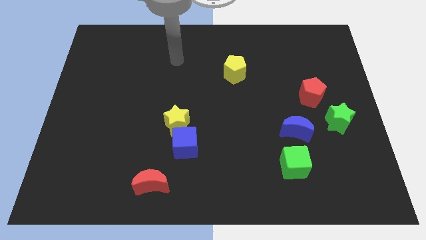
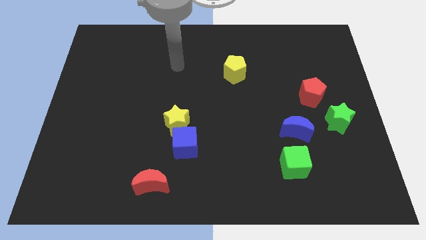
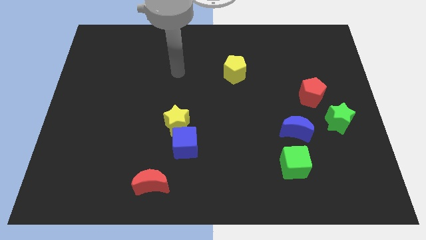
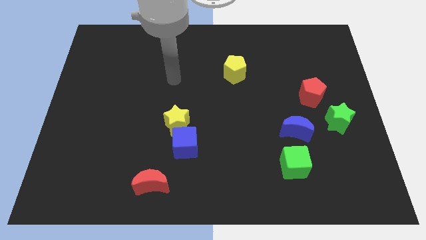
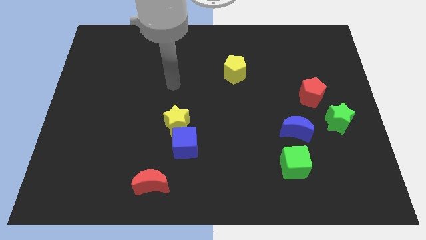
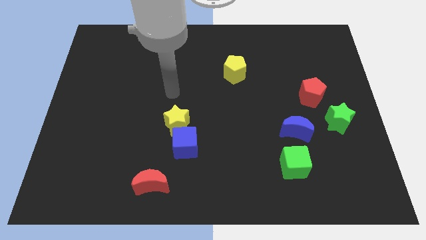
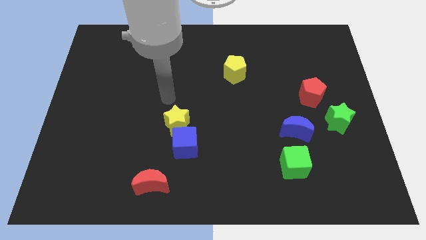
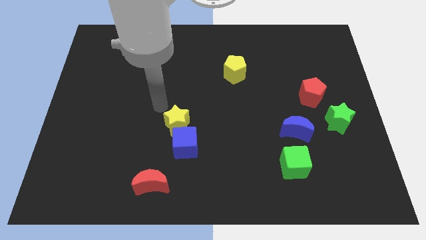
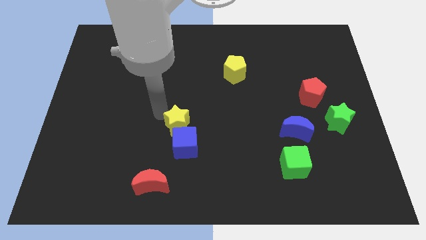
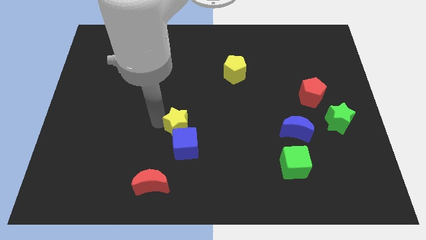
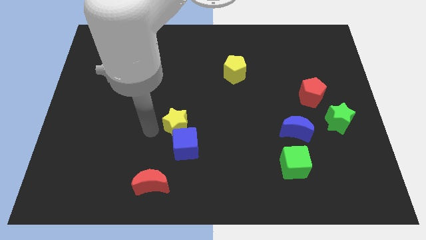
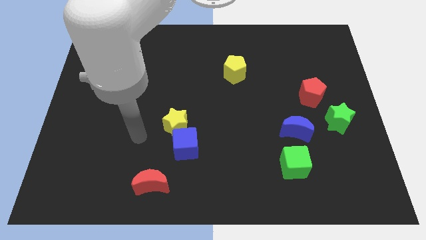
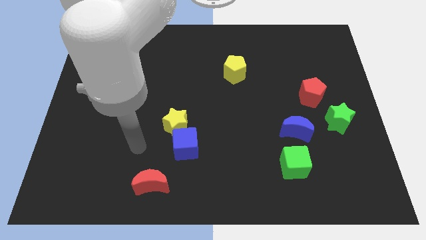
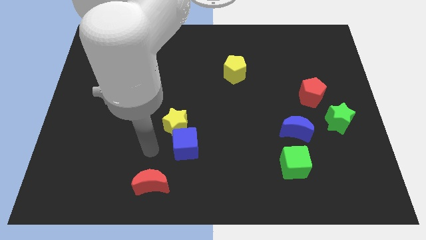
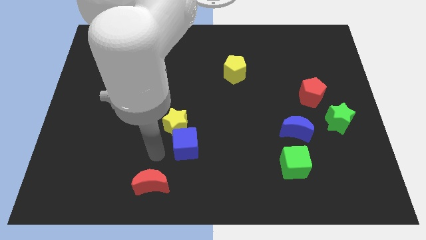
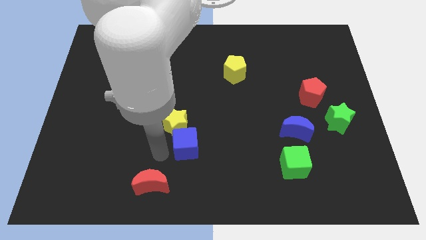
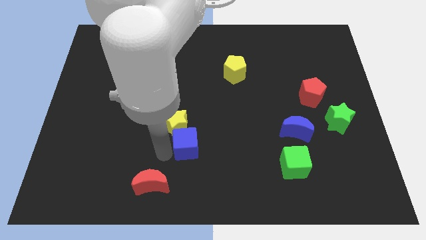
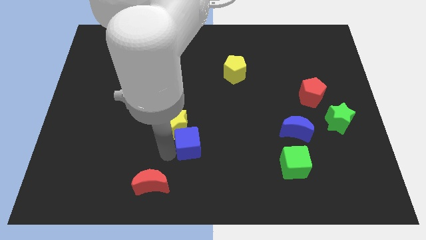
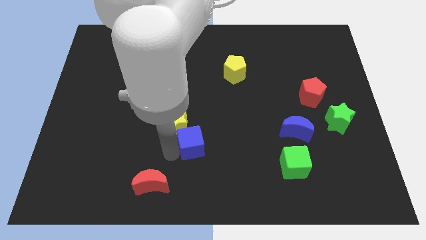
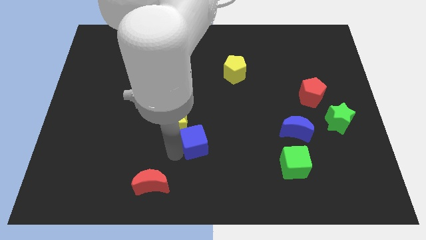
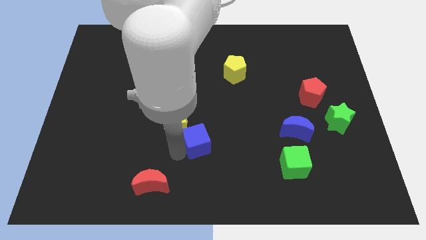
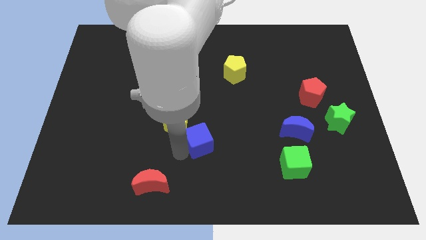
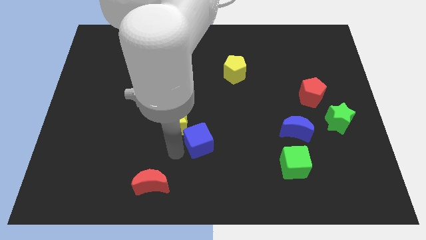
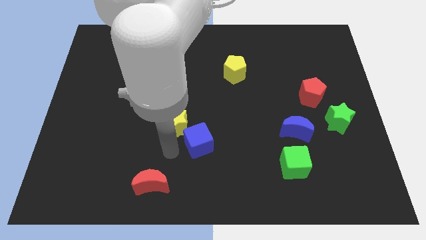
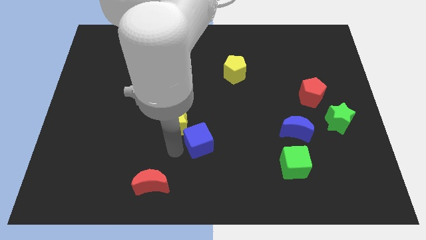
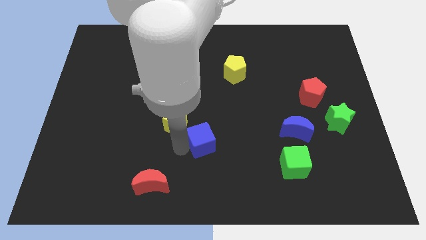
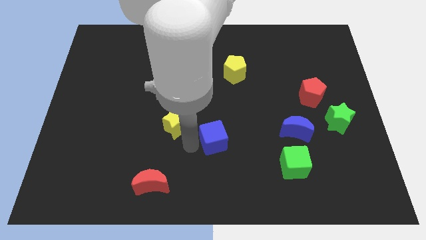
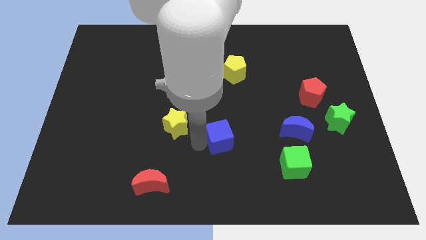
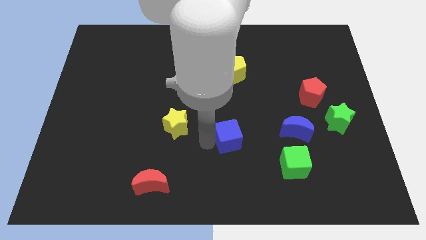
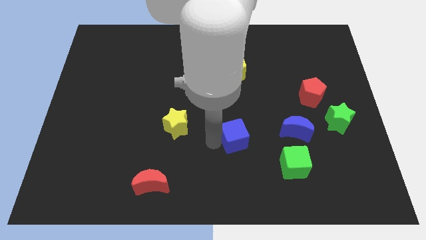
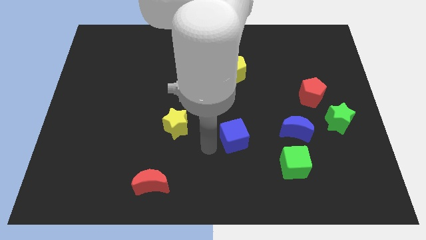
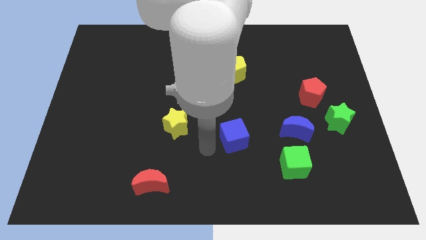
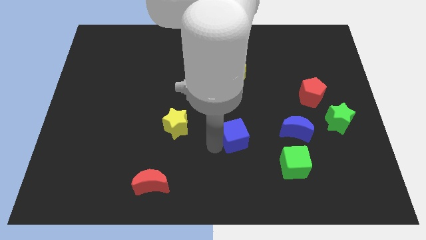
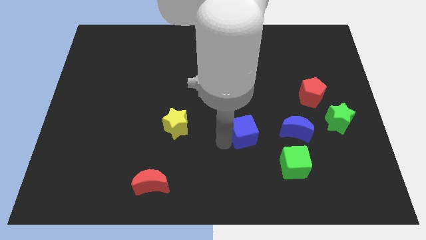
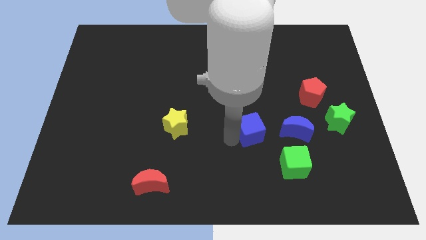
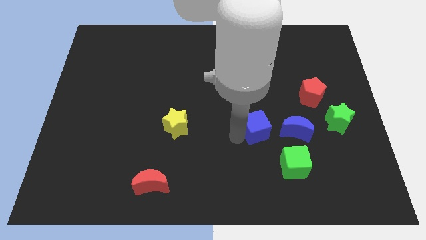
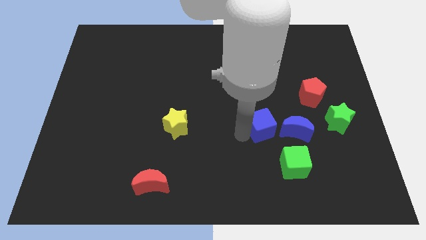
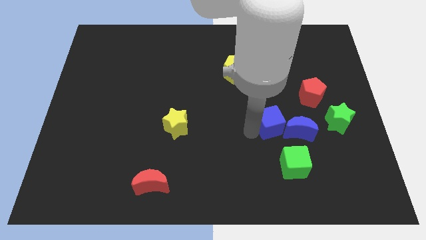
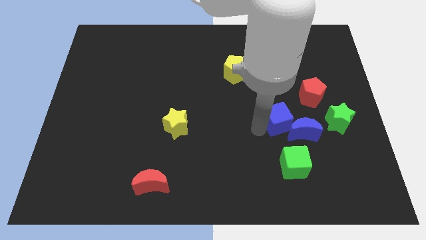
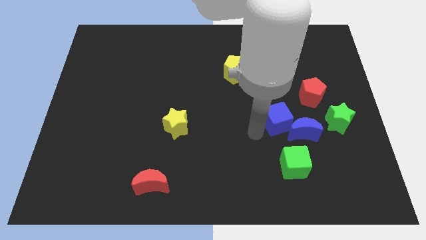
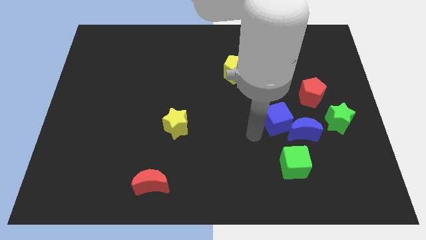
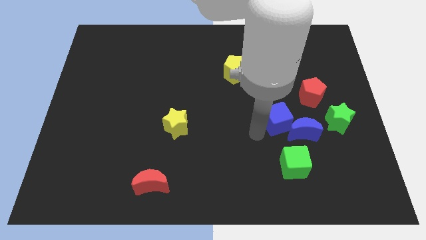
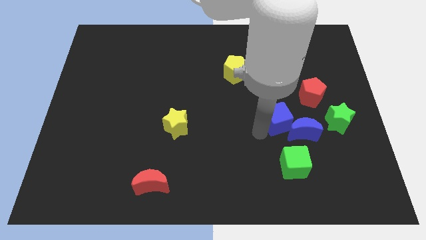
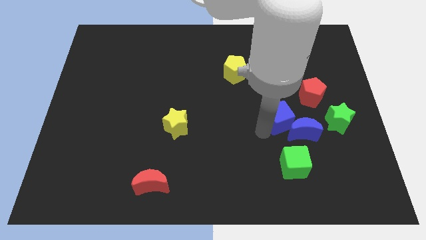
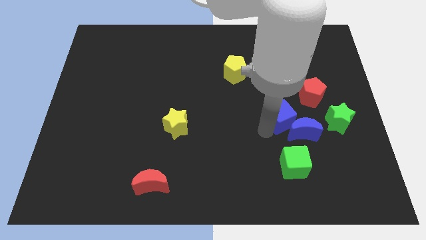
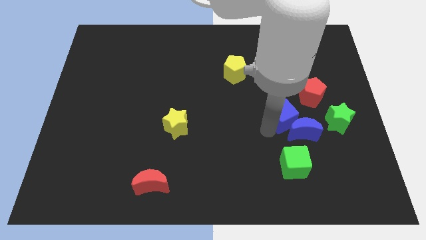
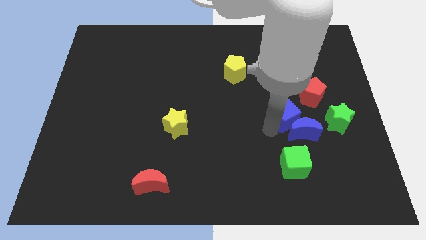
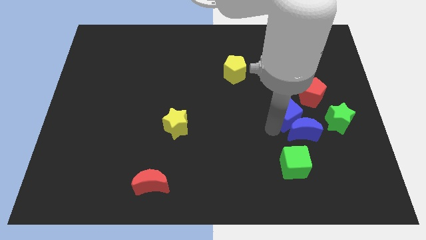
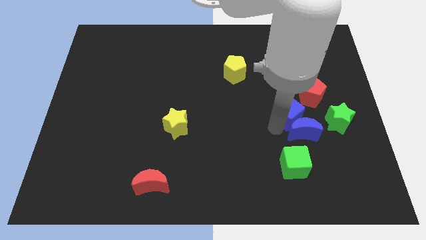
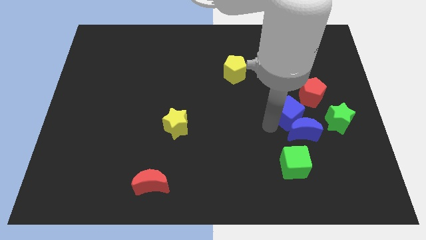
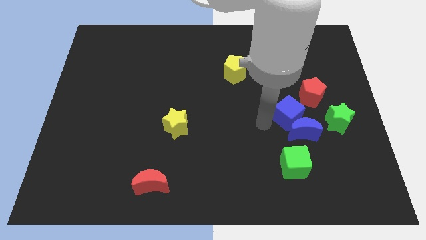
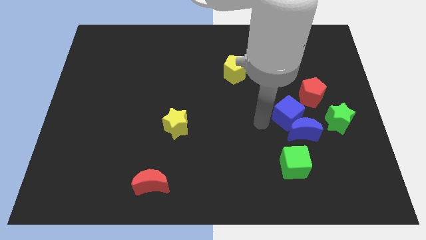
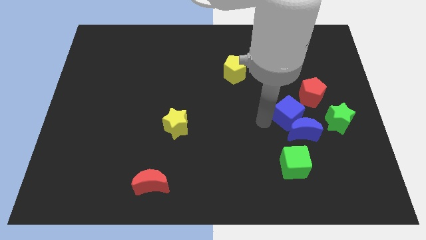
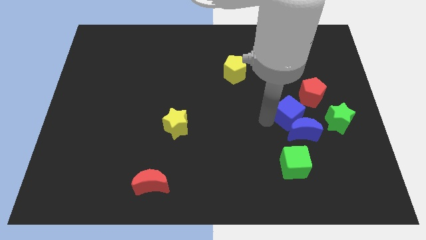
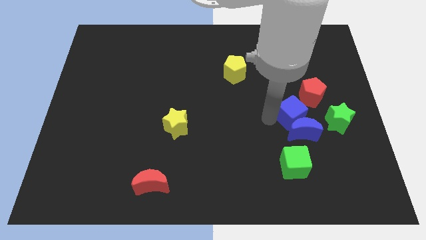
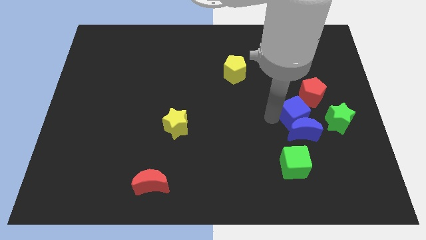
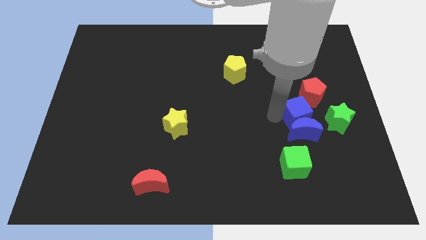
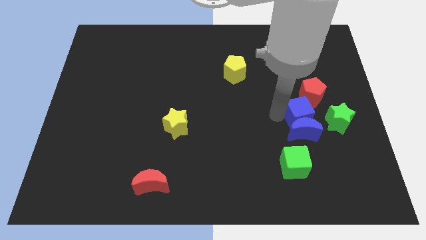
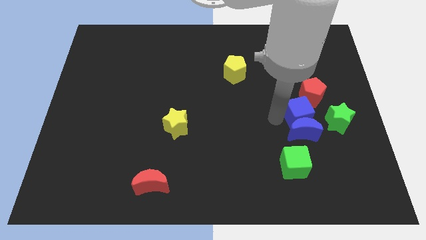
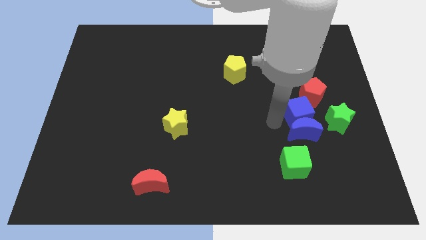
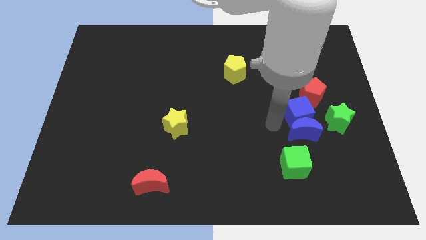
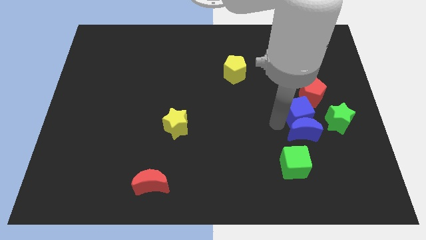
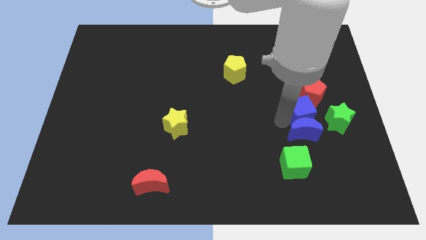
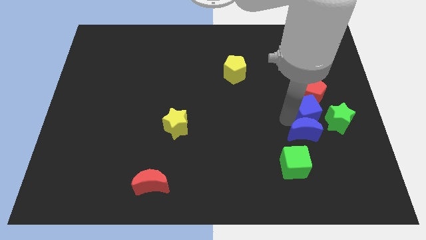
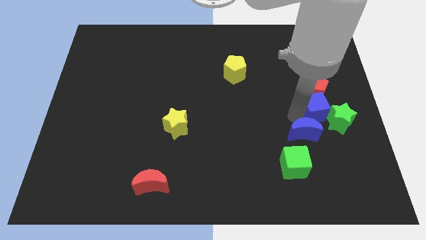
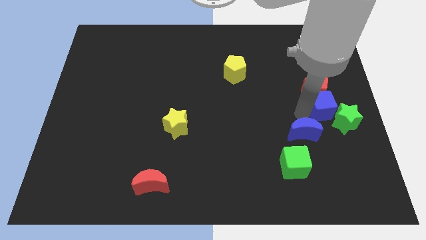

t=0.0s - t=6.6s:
put the blue cube to the right side of the board

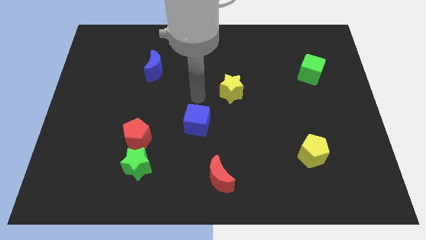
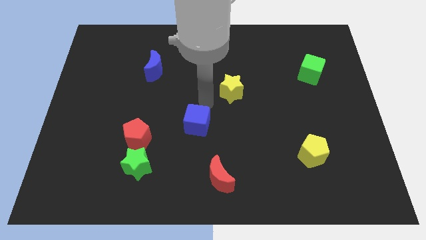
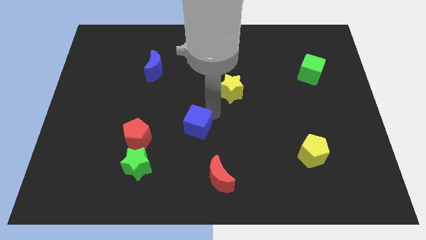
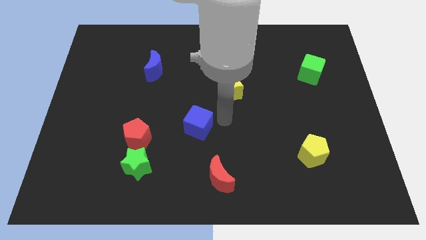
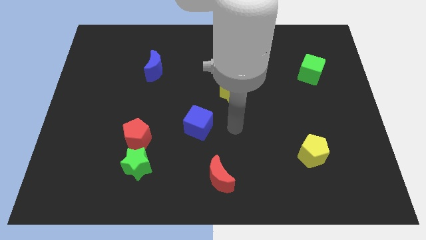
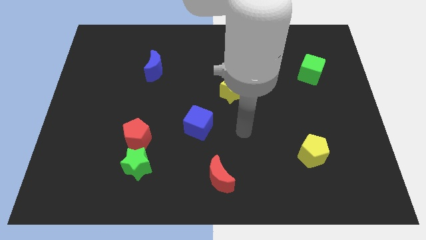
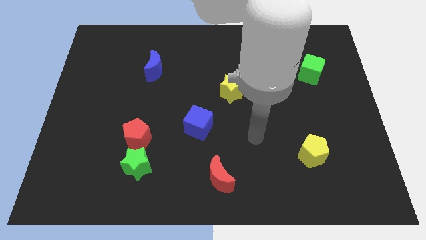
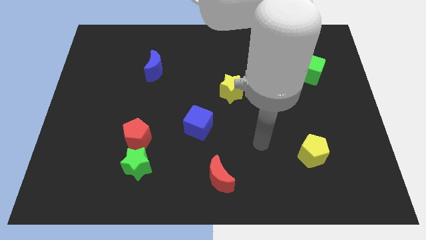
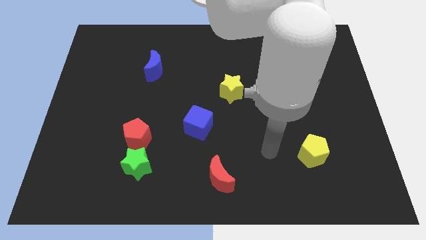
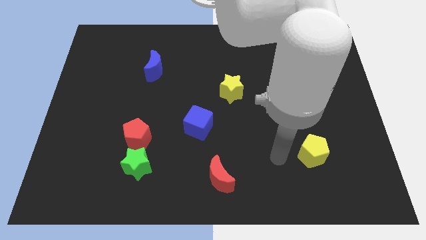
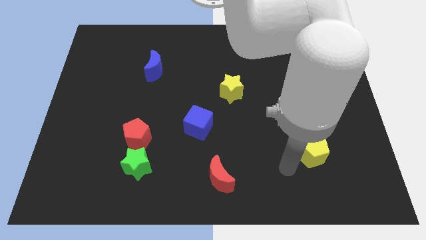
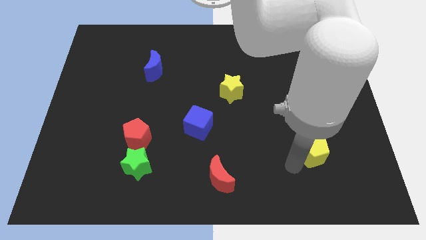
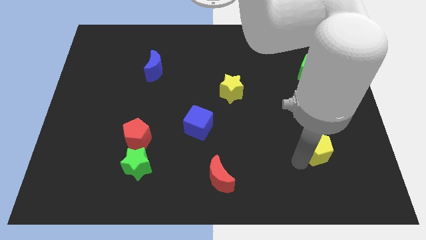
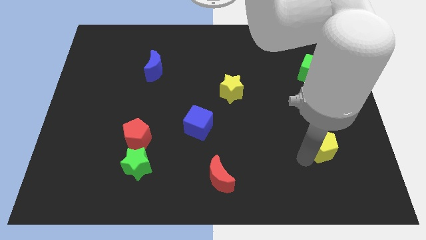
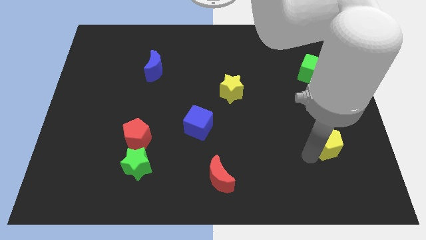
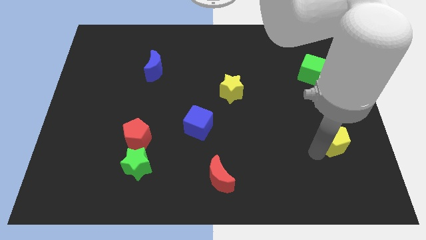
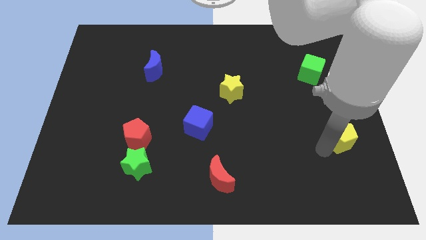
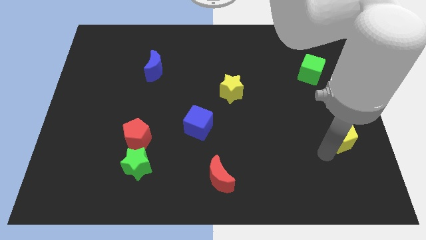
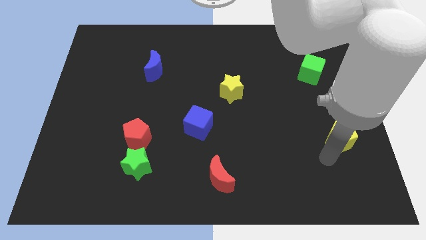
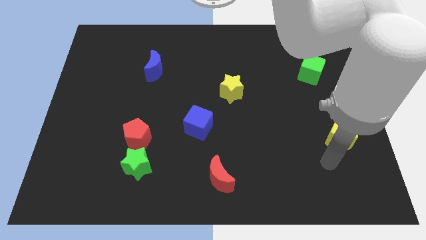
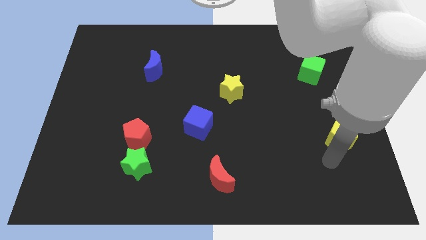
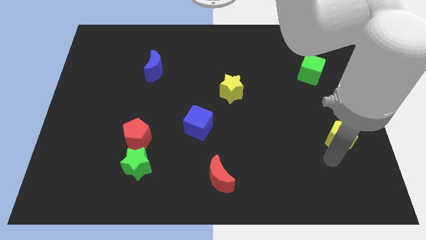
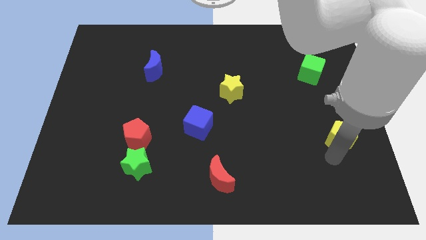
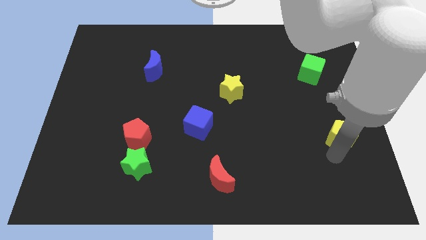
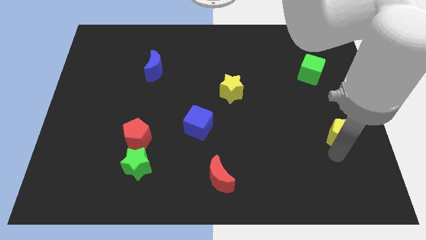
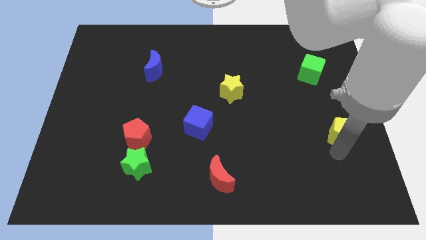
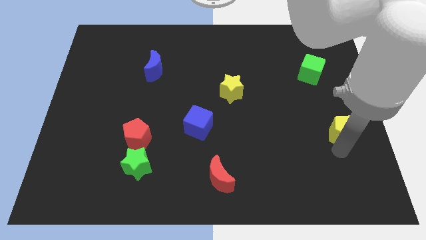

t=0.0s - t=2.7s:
push the yellow pentagon to the right side
